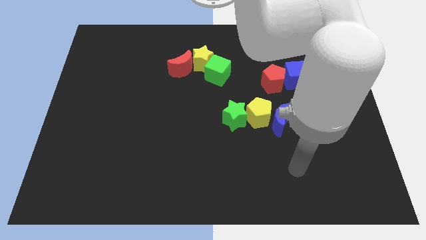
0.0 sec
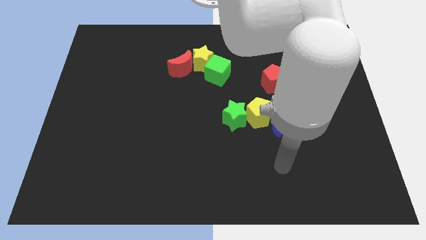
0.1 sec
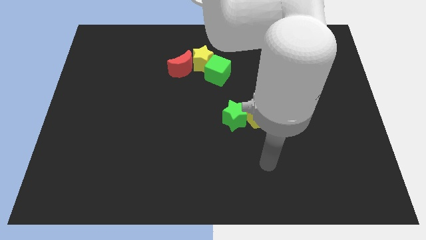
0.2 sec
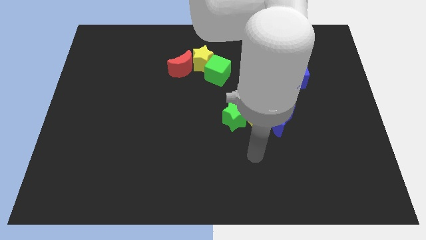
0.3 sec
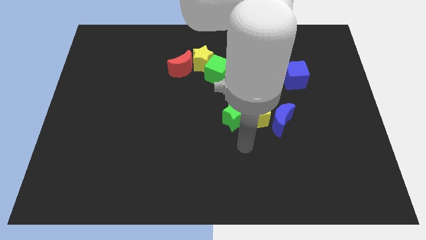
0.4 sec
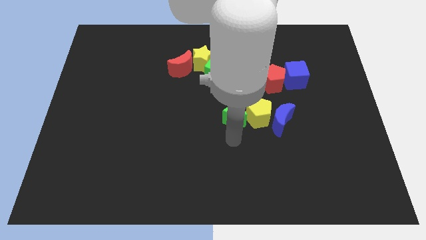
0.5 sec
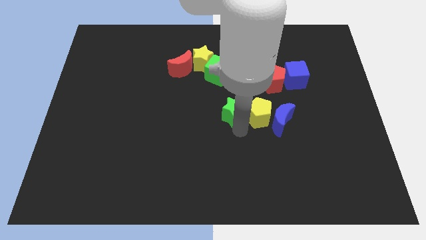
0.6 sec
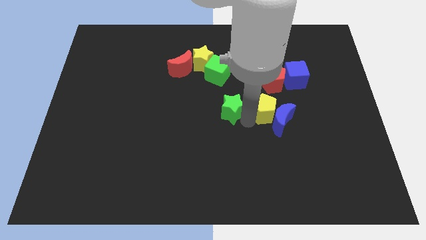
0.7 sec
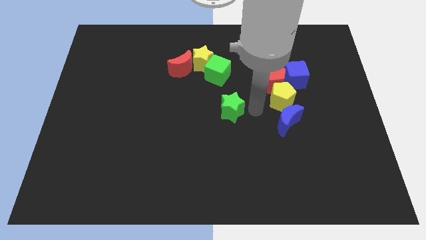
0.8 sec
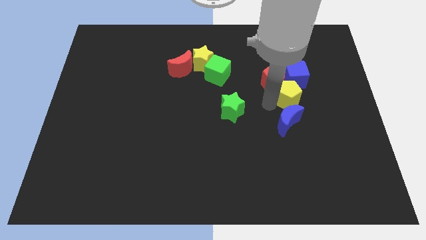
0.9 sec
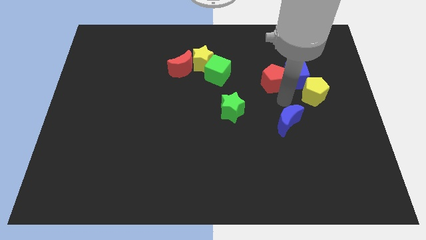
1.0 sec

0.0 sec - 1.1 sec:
pull the blue moon apart from the yellow pentagon

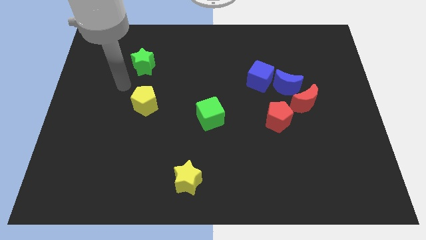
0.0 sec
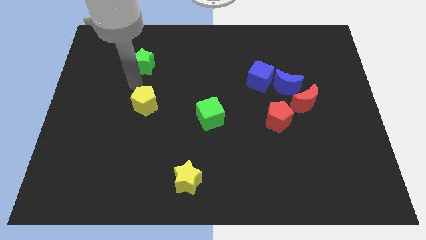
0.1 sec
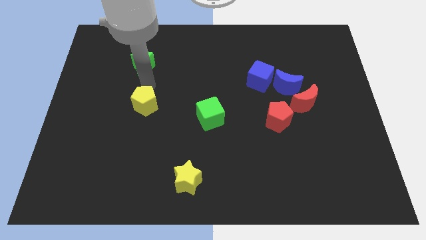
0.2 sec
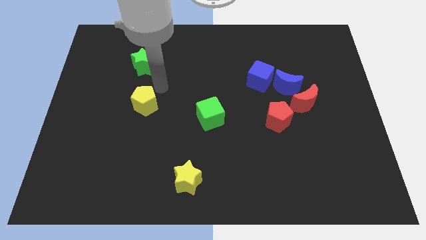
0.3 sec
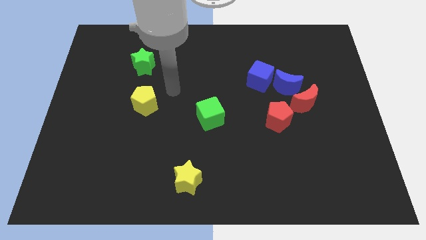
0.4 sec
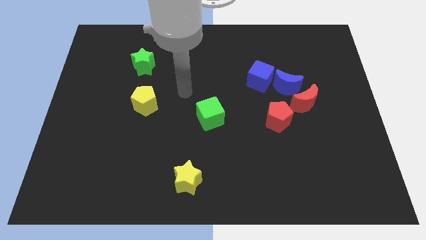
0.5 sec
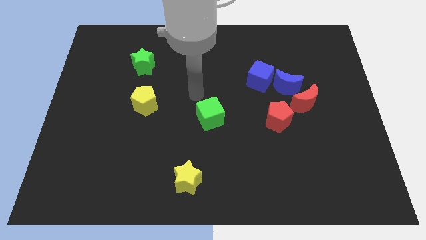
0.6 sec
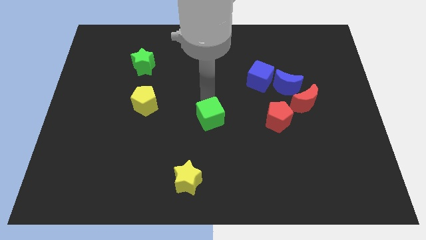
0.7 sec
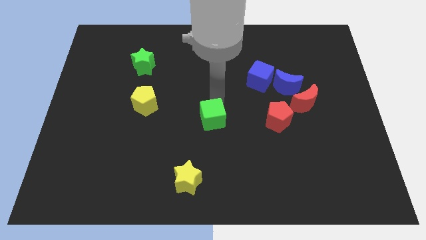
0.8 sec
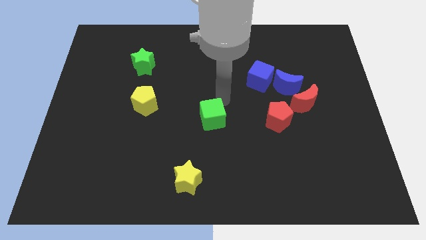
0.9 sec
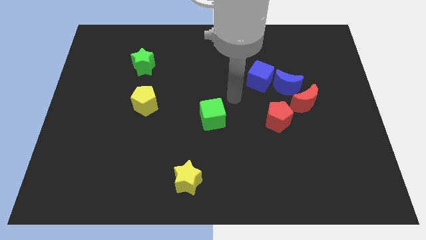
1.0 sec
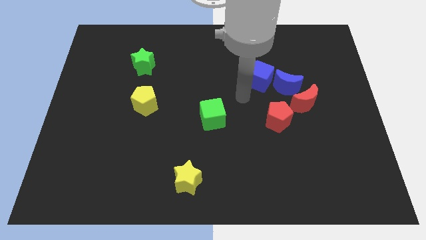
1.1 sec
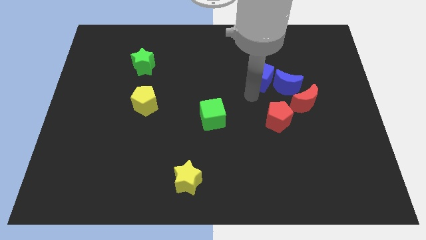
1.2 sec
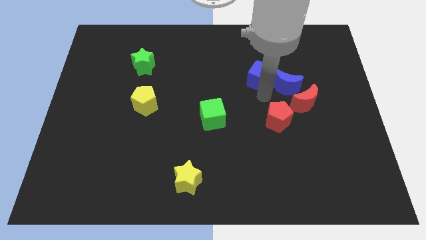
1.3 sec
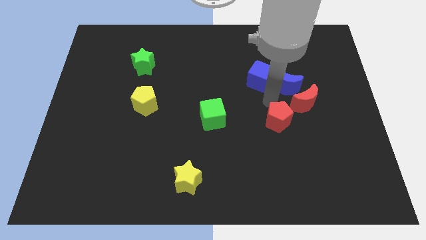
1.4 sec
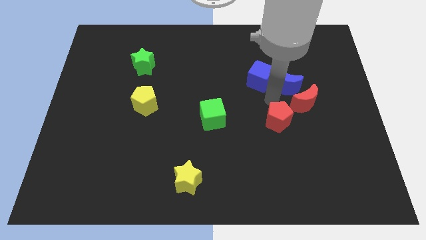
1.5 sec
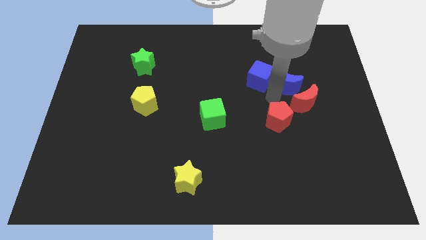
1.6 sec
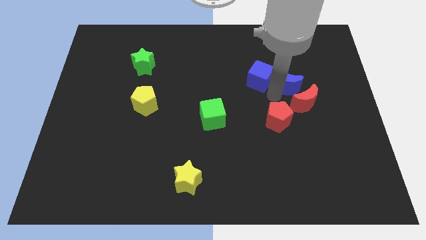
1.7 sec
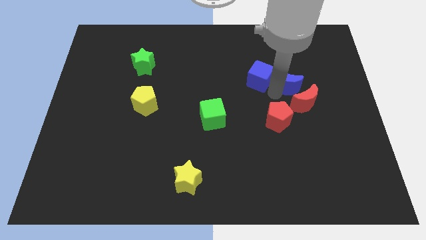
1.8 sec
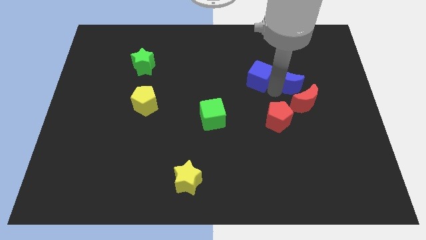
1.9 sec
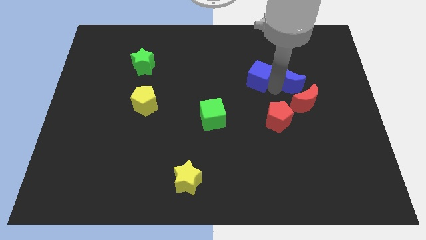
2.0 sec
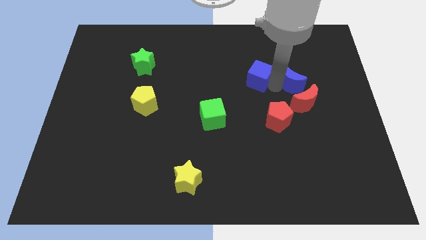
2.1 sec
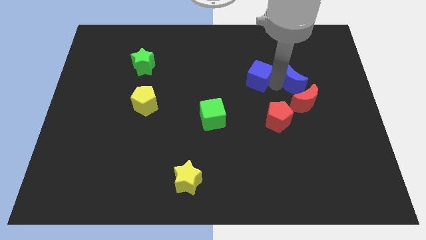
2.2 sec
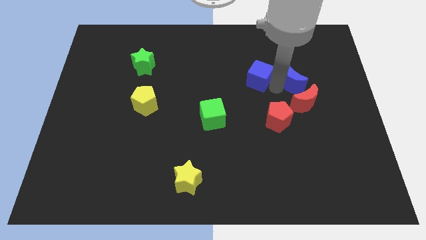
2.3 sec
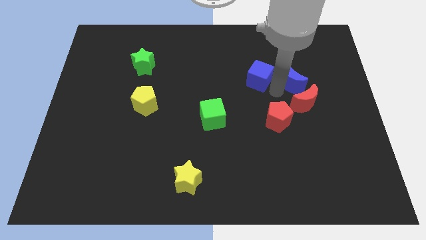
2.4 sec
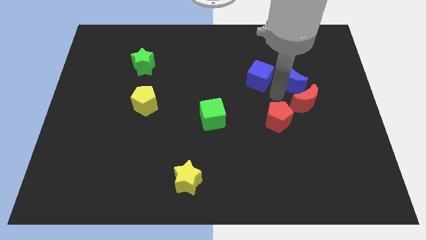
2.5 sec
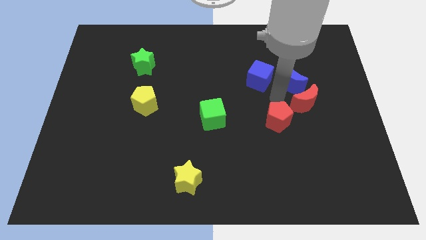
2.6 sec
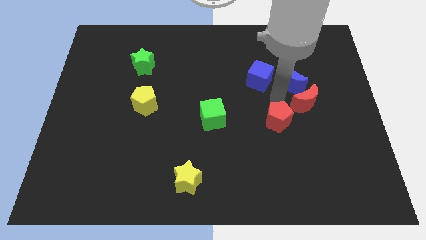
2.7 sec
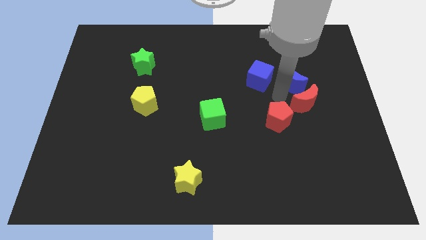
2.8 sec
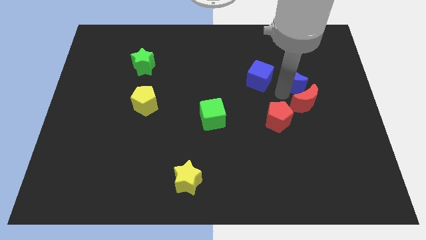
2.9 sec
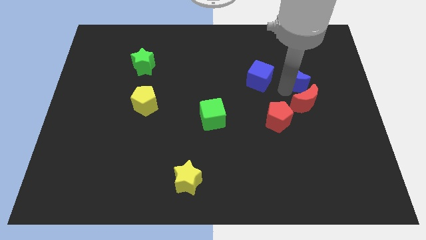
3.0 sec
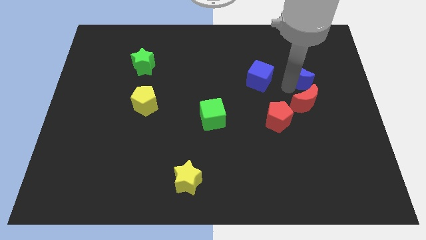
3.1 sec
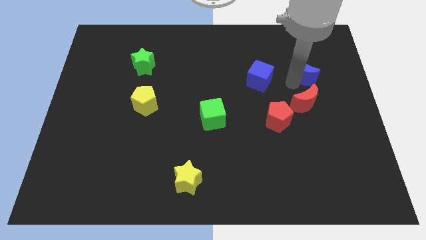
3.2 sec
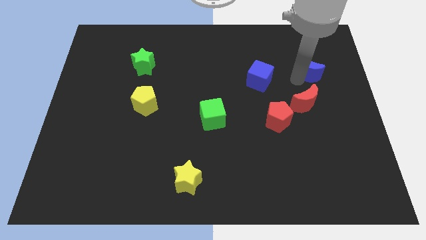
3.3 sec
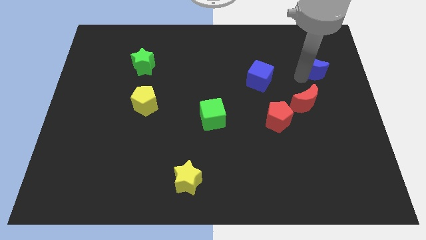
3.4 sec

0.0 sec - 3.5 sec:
move the blue moon away from the red moon and blue cube

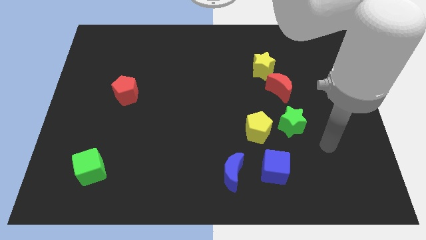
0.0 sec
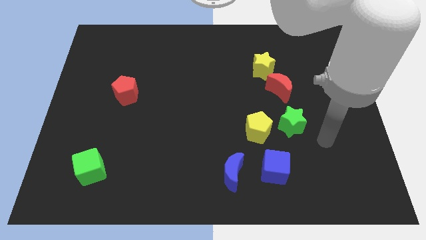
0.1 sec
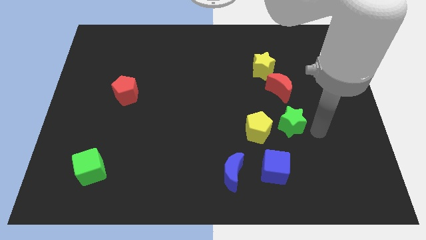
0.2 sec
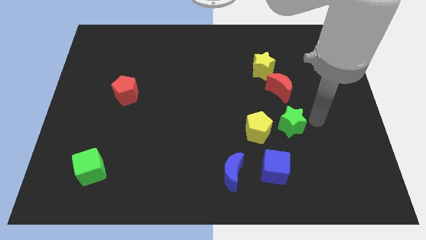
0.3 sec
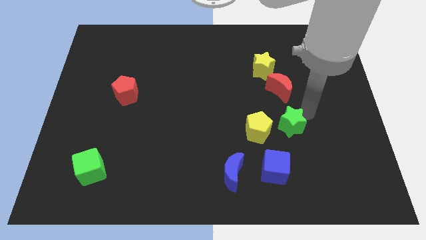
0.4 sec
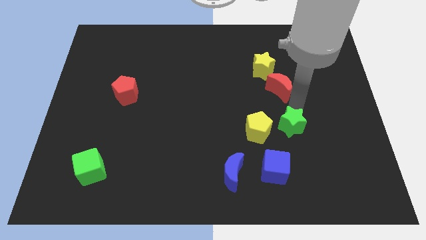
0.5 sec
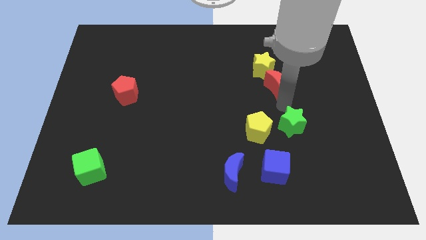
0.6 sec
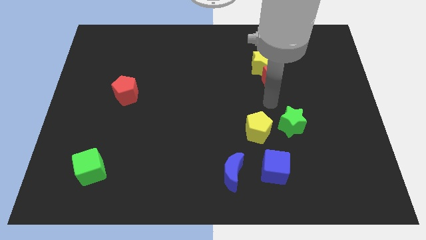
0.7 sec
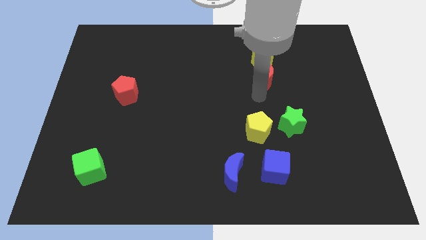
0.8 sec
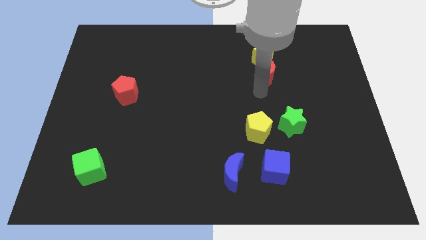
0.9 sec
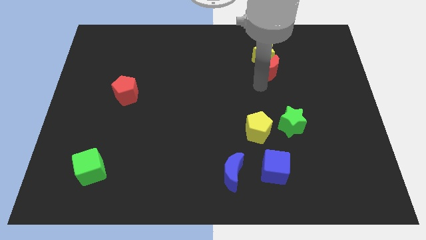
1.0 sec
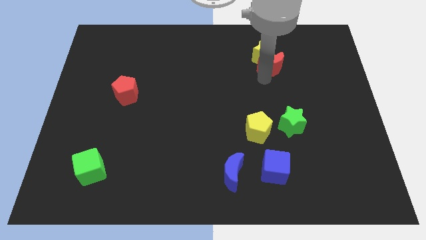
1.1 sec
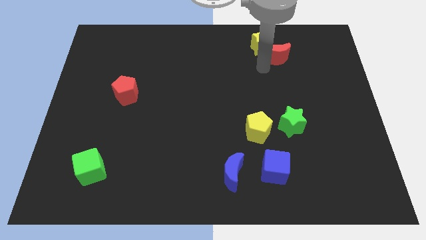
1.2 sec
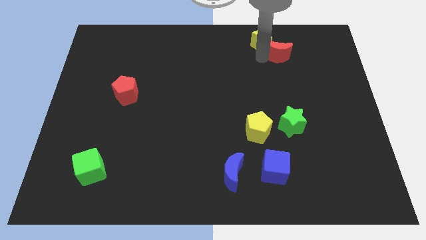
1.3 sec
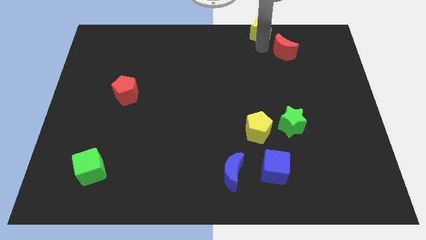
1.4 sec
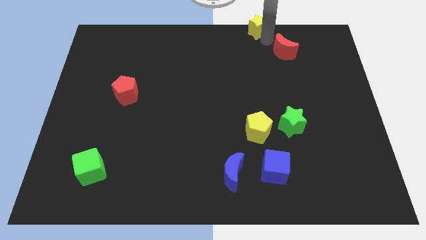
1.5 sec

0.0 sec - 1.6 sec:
separate the red moon from the yellow star

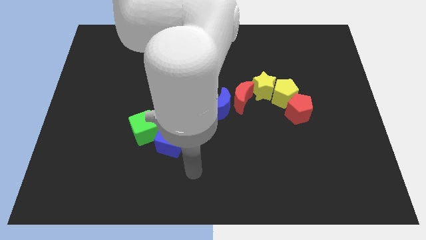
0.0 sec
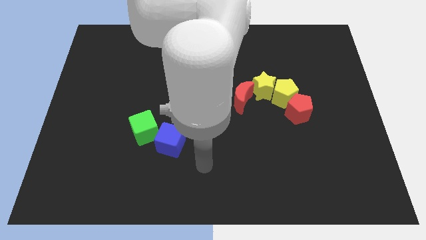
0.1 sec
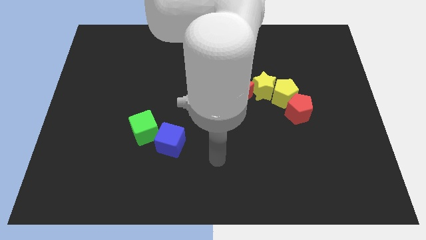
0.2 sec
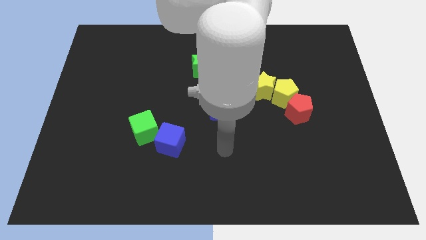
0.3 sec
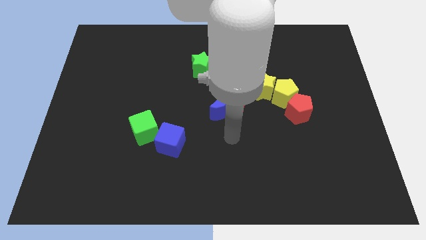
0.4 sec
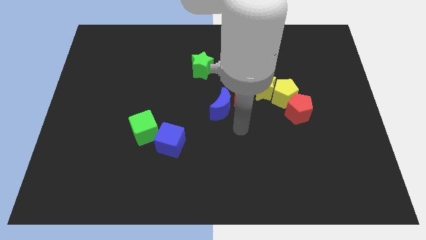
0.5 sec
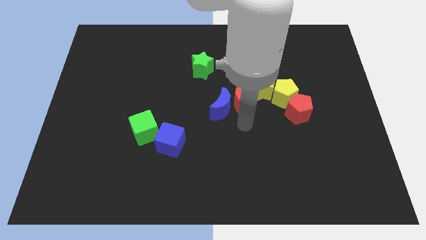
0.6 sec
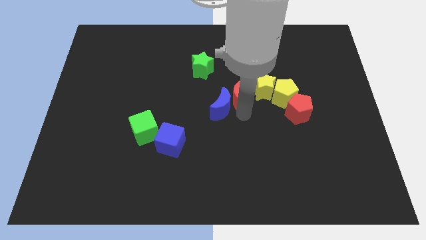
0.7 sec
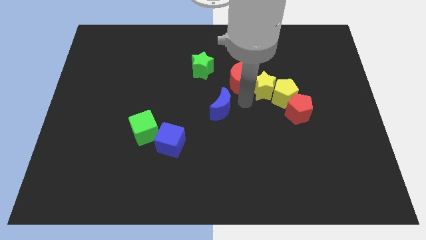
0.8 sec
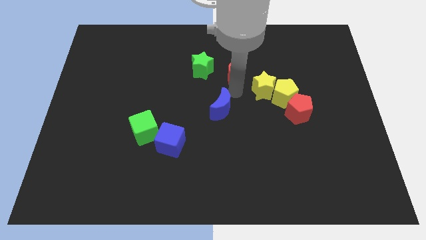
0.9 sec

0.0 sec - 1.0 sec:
pull the blue moon apart from the red moon

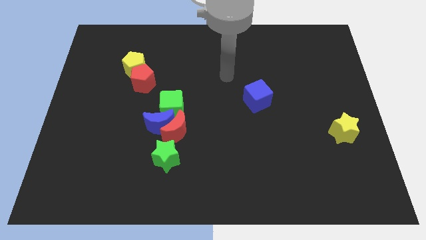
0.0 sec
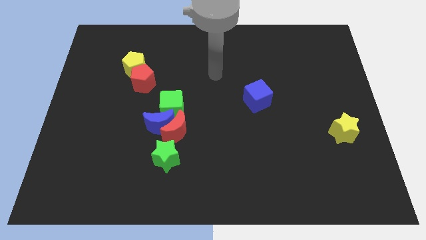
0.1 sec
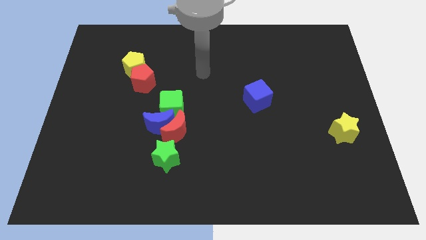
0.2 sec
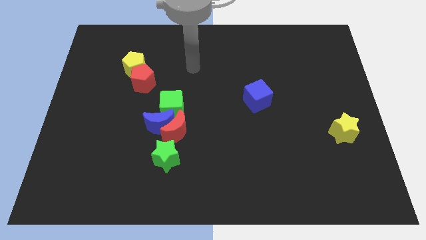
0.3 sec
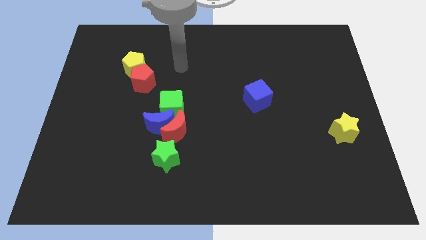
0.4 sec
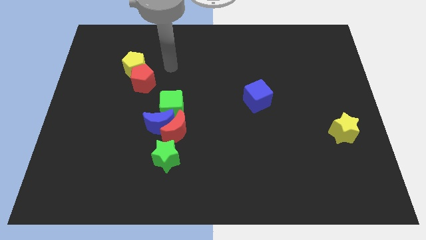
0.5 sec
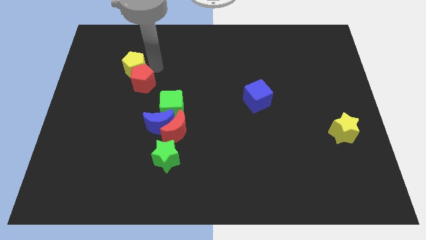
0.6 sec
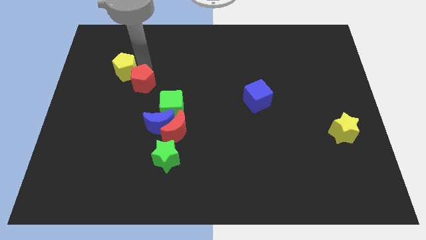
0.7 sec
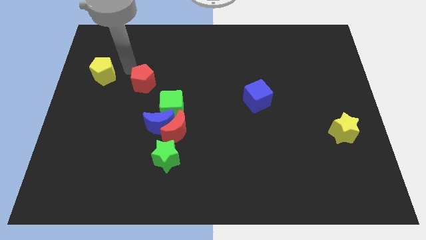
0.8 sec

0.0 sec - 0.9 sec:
separate the red pentagon from the yellow pentagon

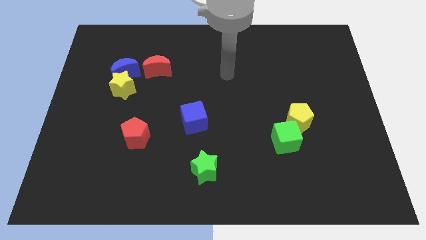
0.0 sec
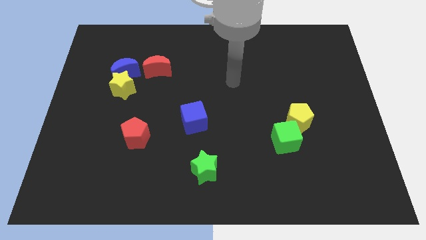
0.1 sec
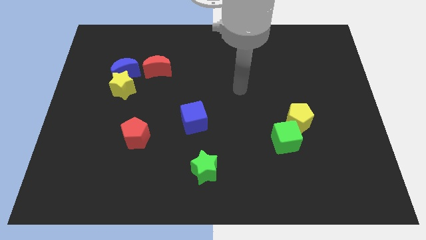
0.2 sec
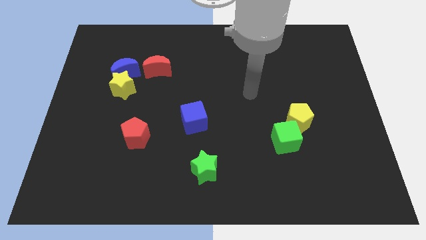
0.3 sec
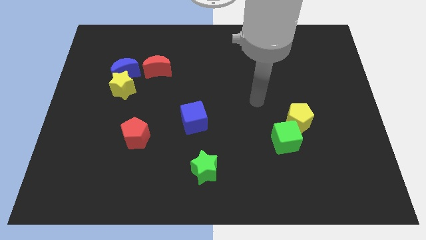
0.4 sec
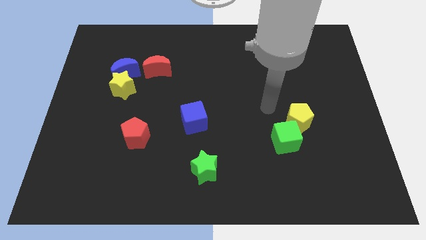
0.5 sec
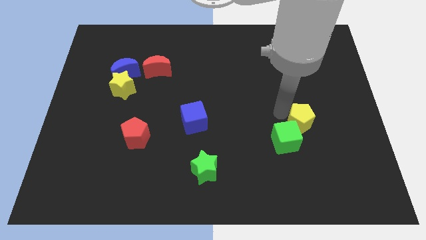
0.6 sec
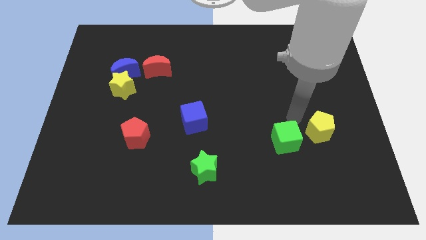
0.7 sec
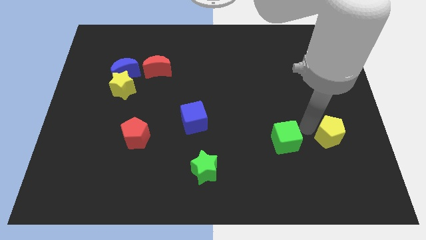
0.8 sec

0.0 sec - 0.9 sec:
pull the green cube apart from the yellow pentagon

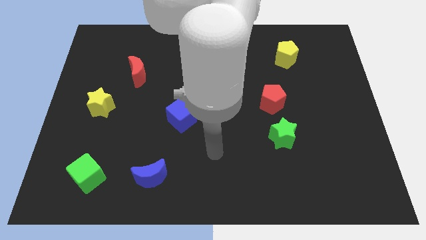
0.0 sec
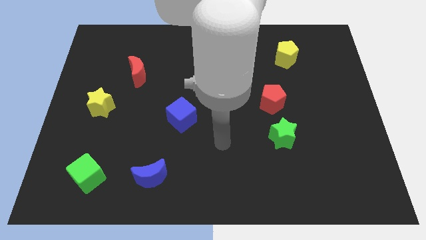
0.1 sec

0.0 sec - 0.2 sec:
pull the red pentagon apart from the green star
